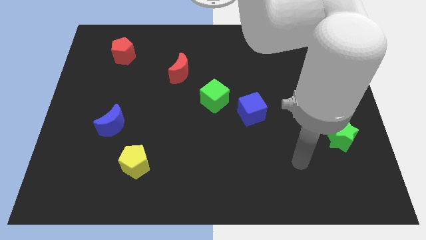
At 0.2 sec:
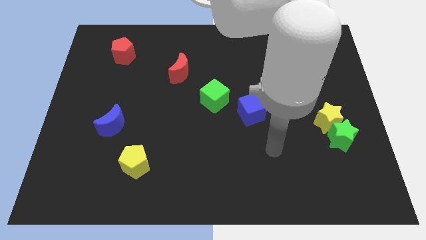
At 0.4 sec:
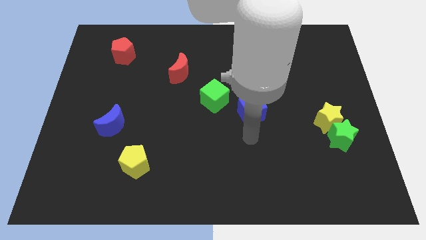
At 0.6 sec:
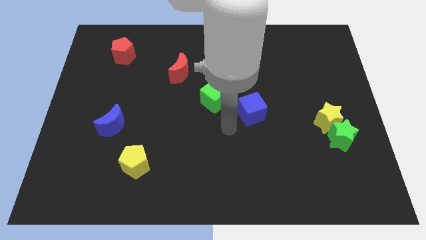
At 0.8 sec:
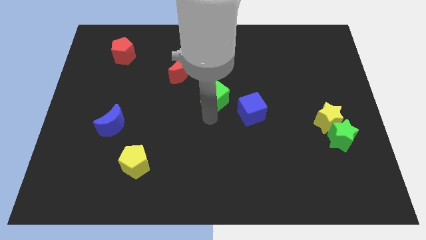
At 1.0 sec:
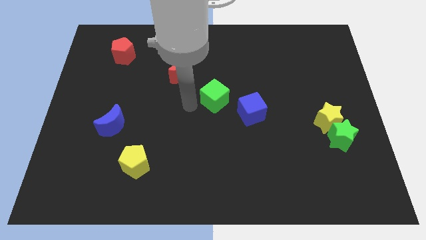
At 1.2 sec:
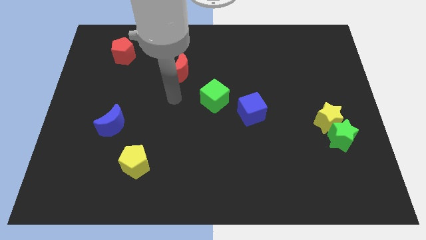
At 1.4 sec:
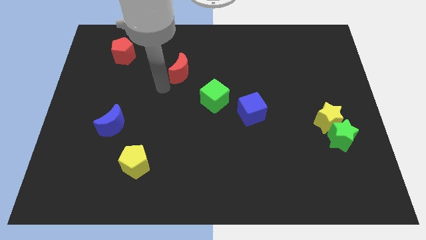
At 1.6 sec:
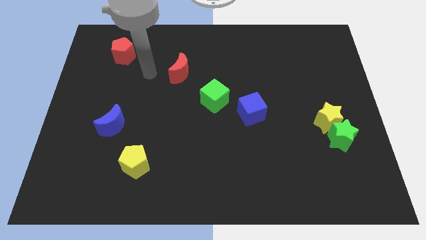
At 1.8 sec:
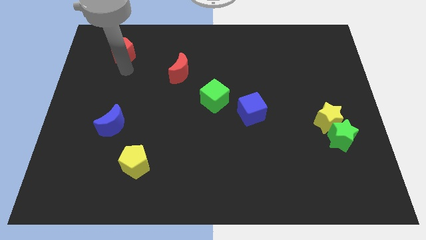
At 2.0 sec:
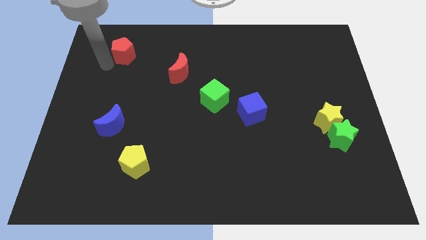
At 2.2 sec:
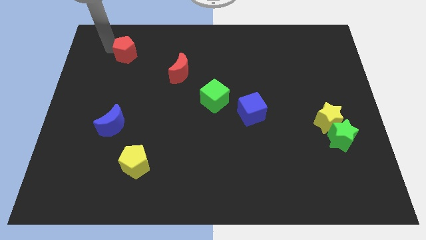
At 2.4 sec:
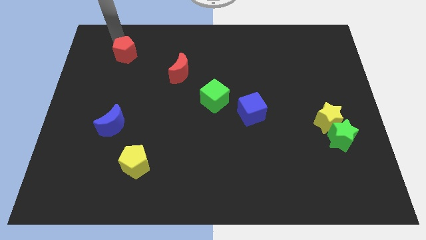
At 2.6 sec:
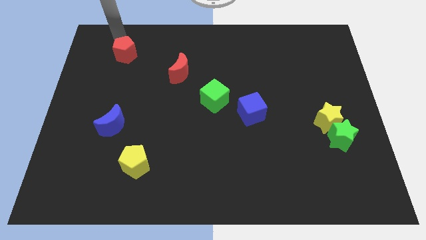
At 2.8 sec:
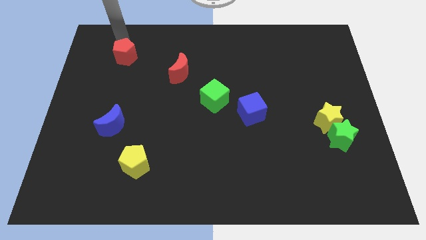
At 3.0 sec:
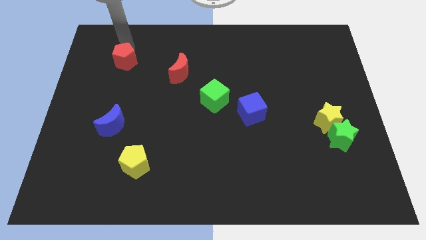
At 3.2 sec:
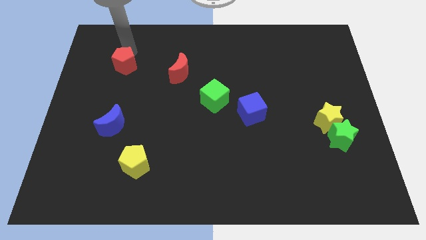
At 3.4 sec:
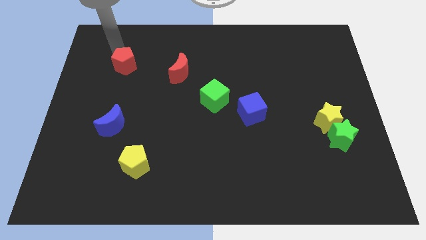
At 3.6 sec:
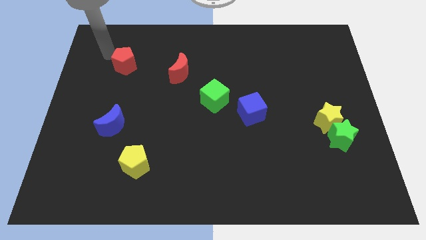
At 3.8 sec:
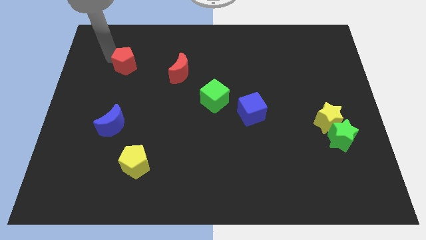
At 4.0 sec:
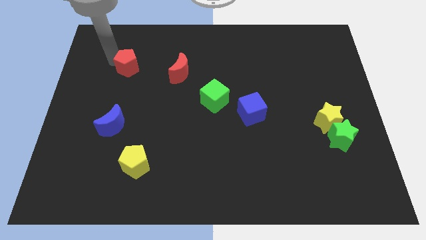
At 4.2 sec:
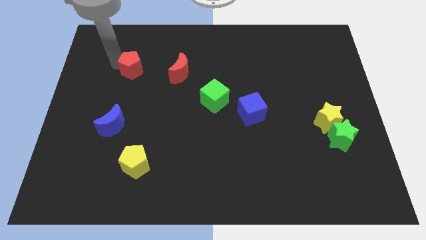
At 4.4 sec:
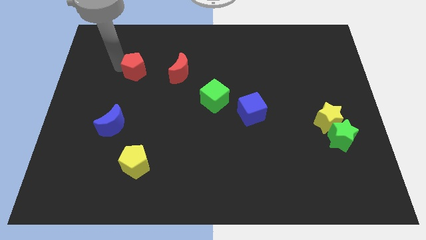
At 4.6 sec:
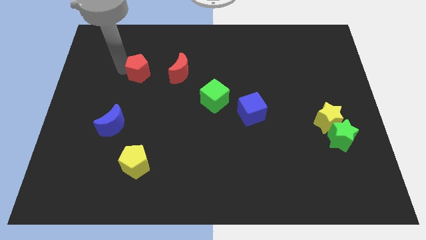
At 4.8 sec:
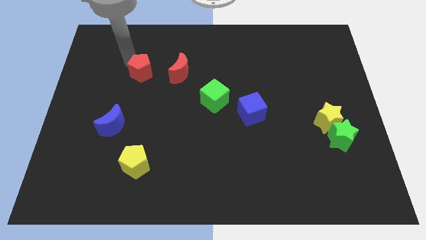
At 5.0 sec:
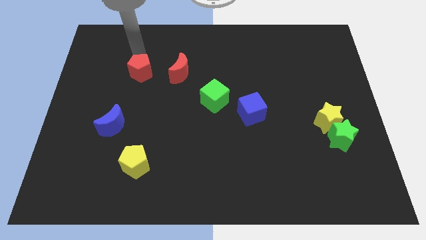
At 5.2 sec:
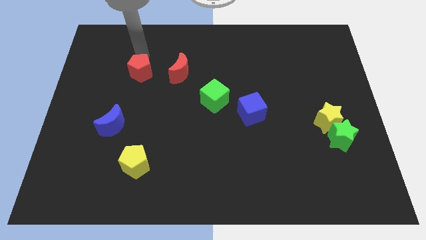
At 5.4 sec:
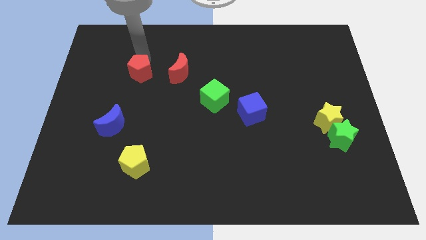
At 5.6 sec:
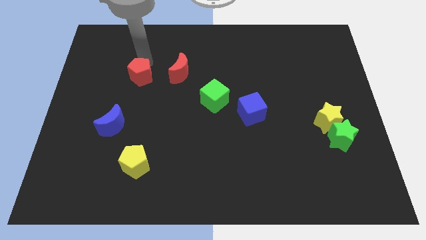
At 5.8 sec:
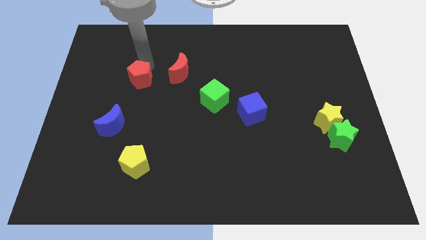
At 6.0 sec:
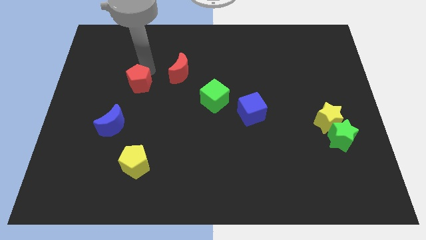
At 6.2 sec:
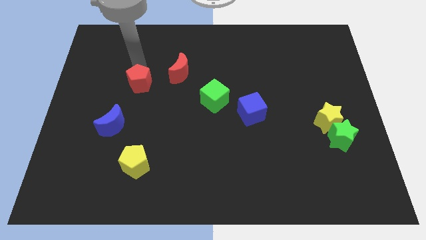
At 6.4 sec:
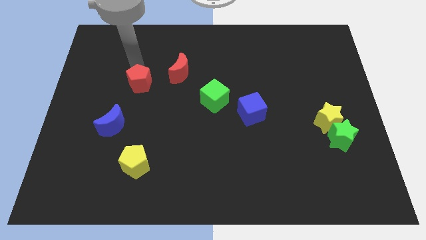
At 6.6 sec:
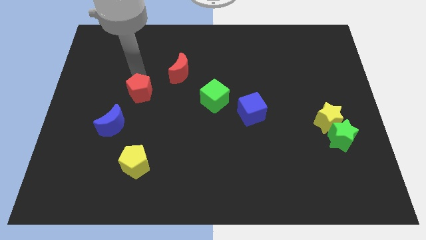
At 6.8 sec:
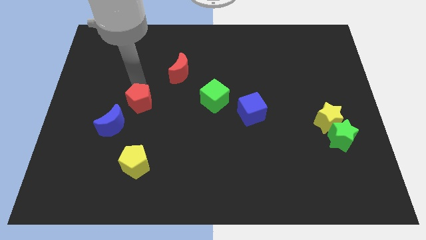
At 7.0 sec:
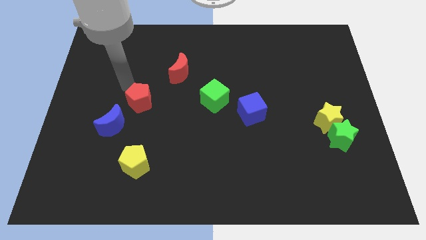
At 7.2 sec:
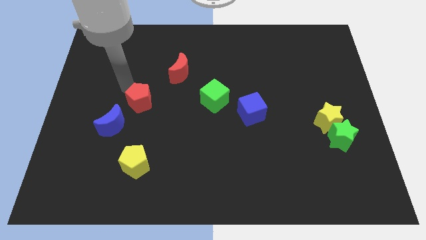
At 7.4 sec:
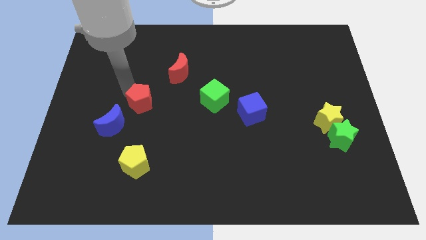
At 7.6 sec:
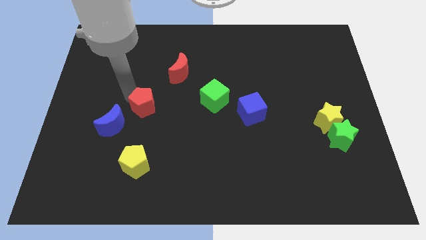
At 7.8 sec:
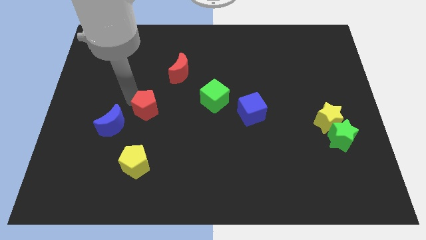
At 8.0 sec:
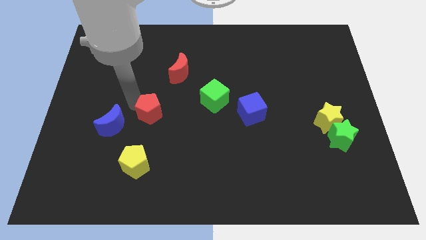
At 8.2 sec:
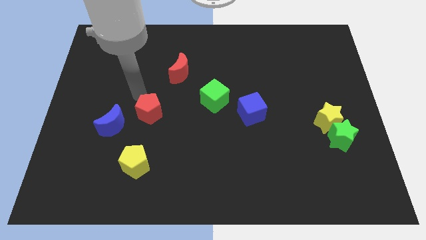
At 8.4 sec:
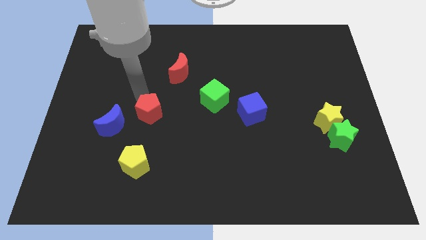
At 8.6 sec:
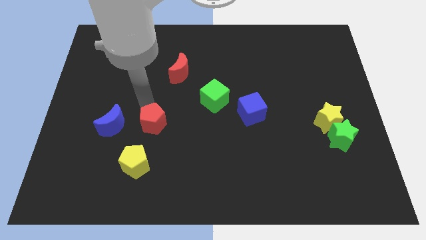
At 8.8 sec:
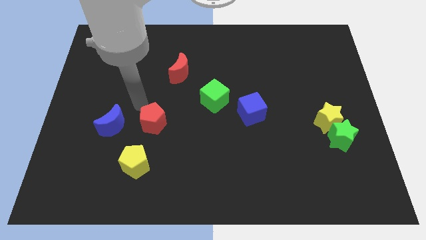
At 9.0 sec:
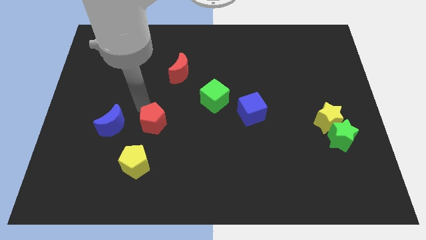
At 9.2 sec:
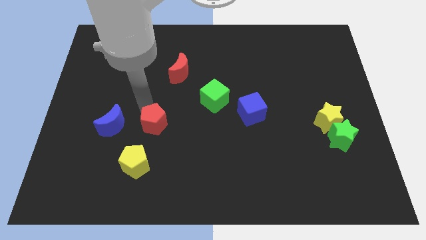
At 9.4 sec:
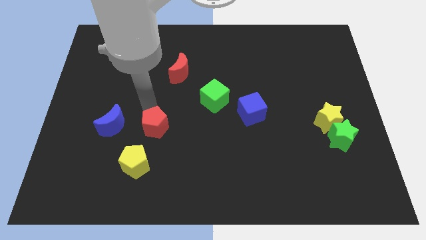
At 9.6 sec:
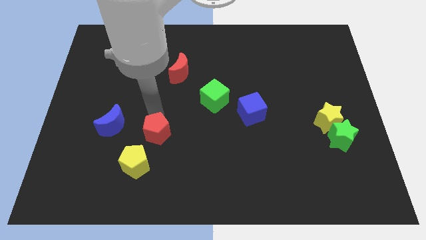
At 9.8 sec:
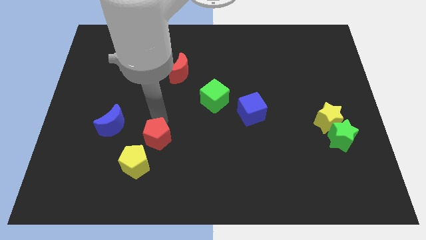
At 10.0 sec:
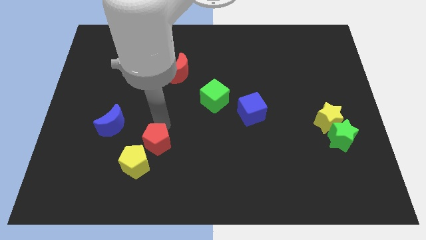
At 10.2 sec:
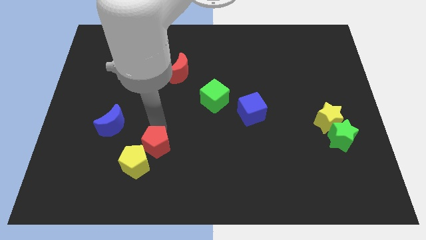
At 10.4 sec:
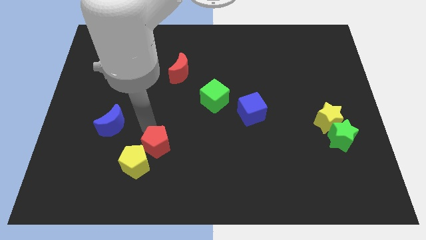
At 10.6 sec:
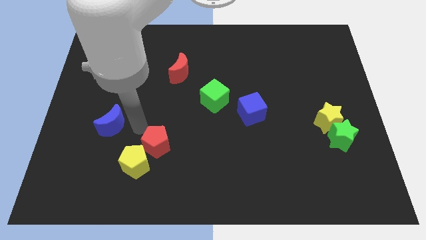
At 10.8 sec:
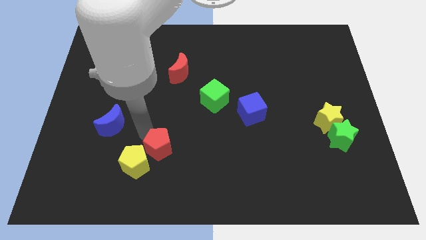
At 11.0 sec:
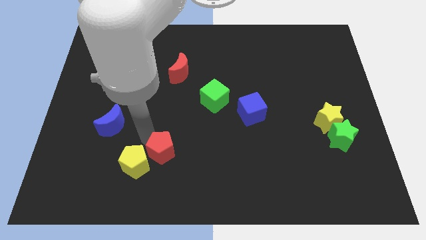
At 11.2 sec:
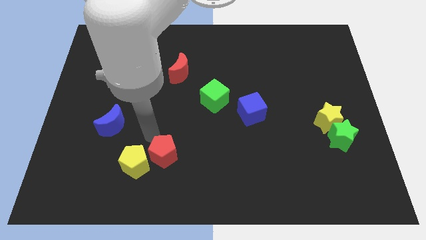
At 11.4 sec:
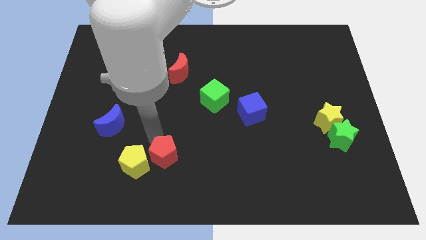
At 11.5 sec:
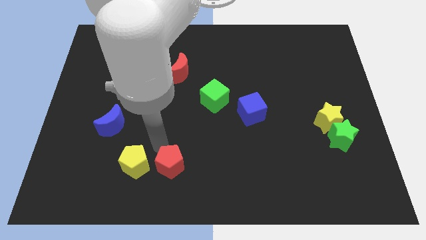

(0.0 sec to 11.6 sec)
move the red pentagon to the bottom

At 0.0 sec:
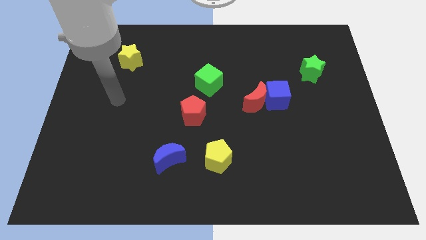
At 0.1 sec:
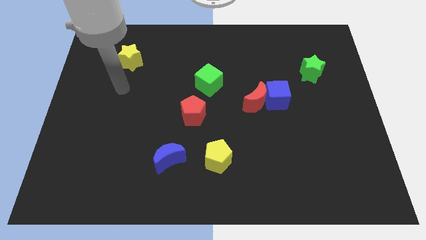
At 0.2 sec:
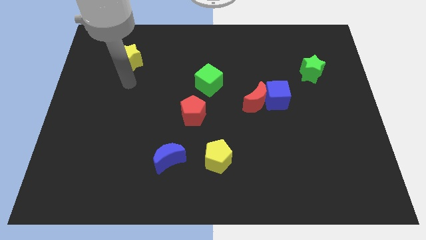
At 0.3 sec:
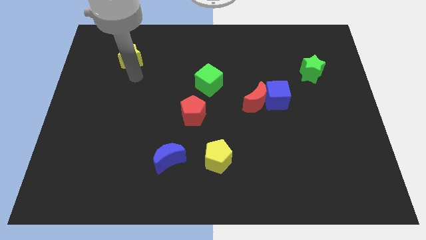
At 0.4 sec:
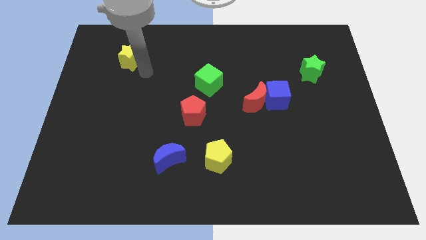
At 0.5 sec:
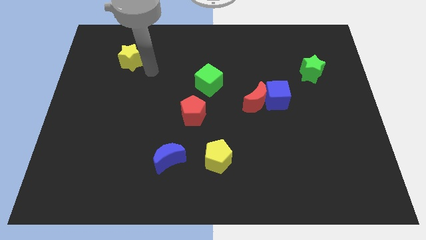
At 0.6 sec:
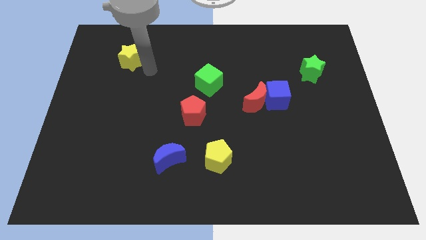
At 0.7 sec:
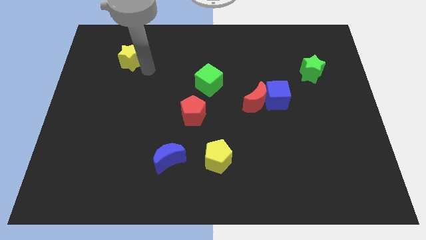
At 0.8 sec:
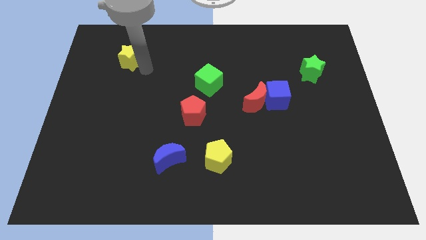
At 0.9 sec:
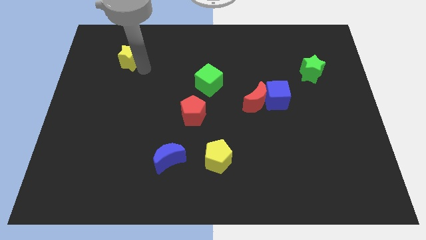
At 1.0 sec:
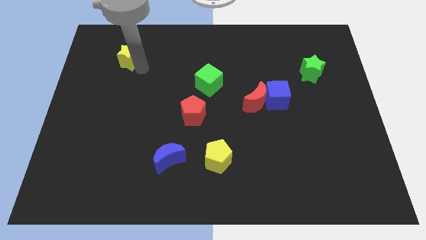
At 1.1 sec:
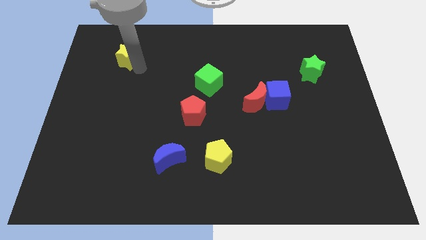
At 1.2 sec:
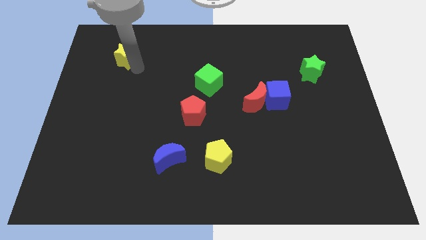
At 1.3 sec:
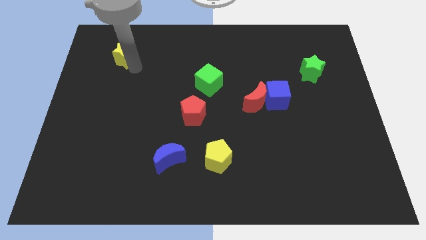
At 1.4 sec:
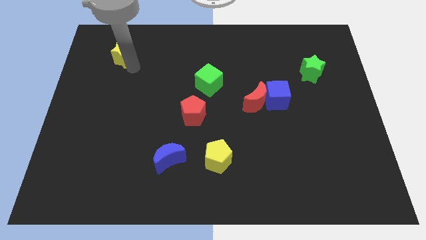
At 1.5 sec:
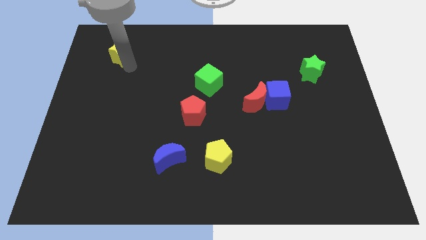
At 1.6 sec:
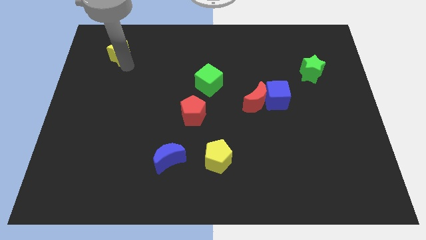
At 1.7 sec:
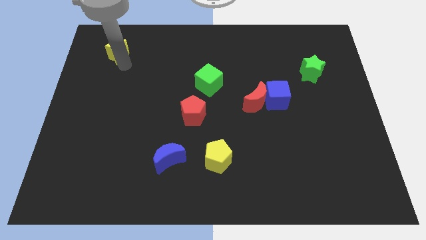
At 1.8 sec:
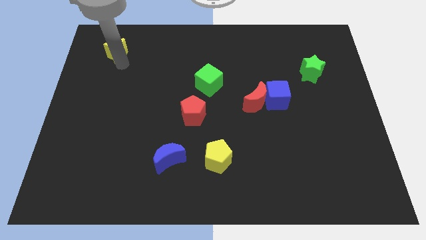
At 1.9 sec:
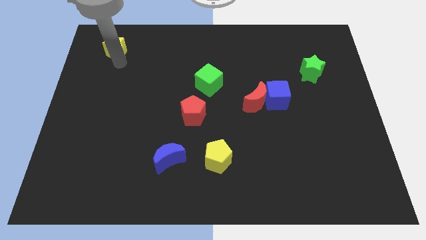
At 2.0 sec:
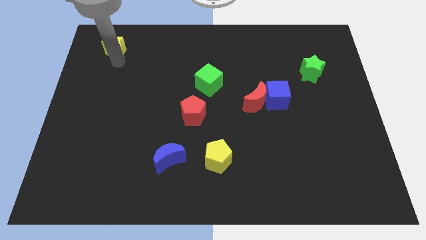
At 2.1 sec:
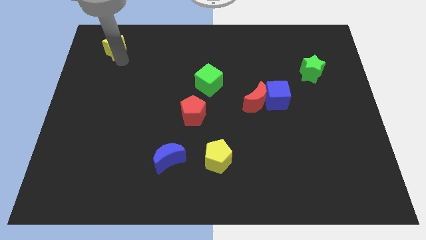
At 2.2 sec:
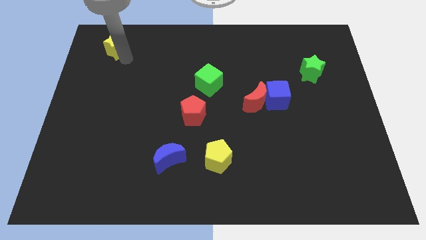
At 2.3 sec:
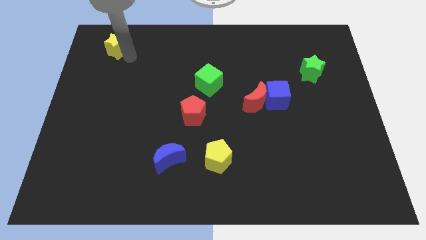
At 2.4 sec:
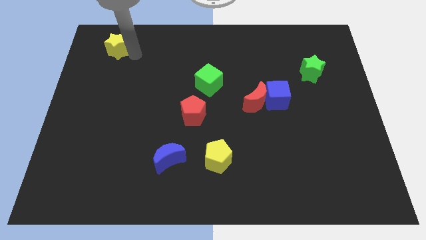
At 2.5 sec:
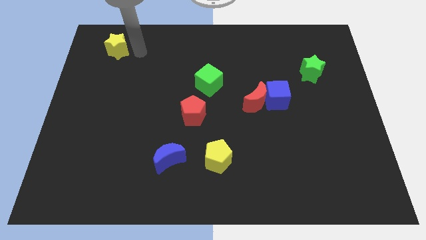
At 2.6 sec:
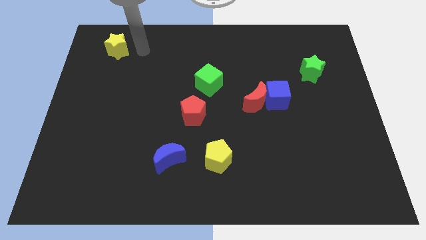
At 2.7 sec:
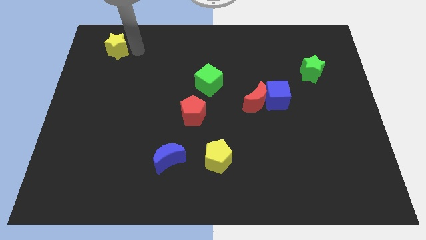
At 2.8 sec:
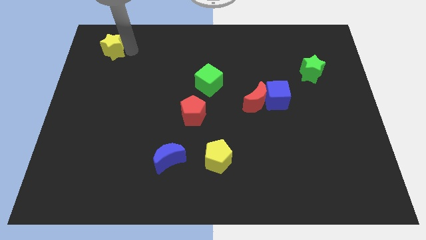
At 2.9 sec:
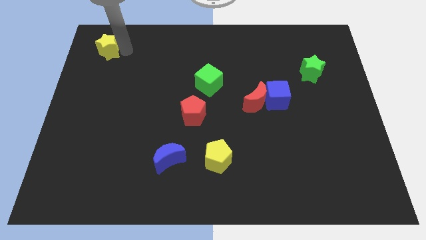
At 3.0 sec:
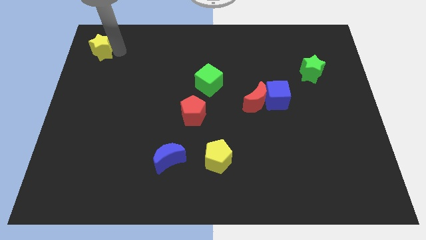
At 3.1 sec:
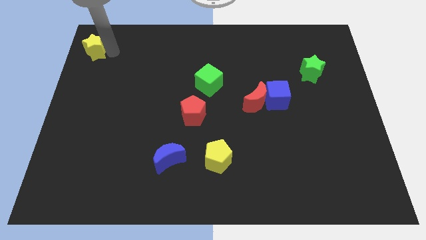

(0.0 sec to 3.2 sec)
slide the yellow star to the upper left corner
